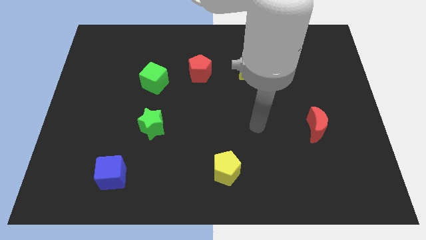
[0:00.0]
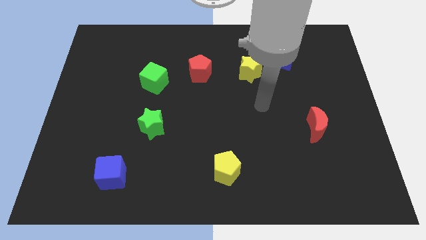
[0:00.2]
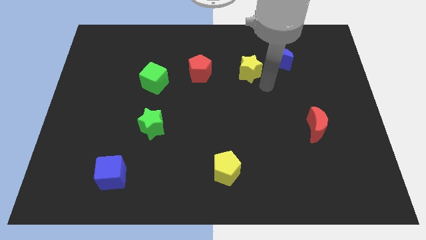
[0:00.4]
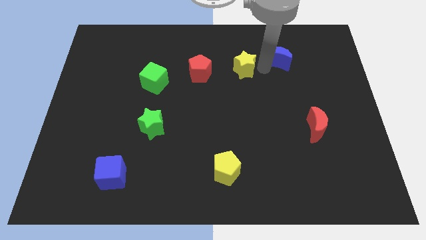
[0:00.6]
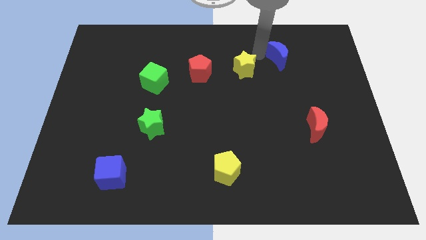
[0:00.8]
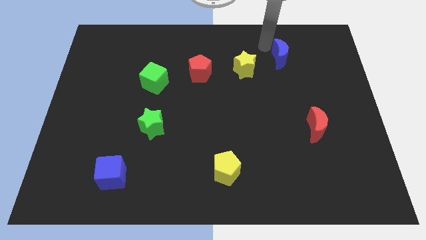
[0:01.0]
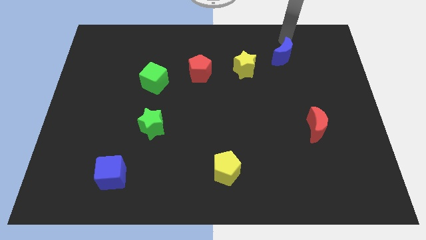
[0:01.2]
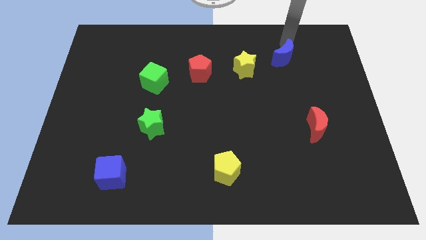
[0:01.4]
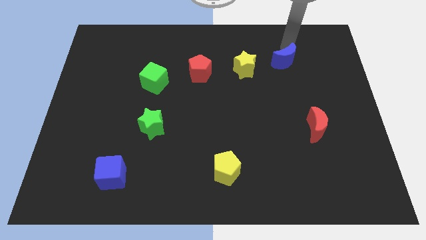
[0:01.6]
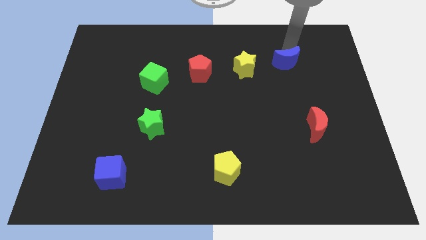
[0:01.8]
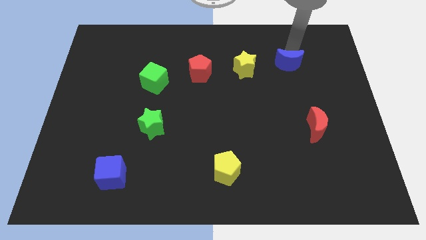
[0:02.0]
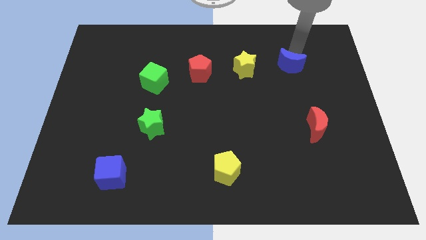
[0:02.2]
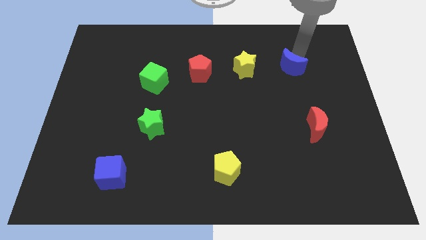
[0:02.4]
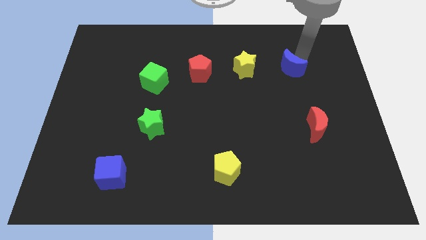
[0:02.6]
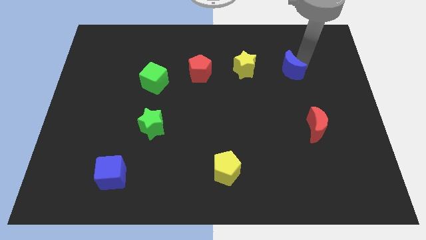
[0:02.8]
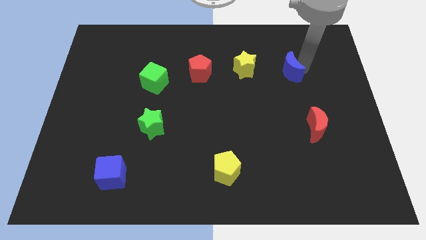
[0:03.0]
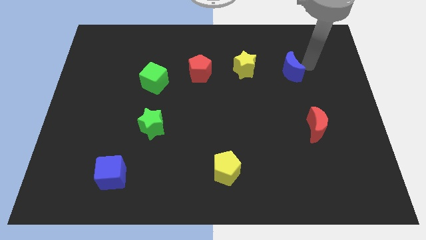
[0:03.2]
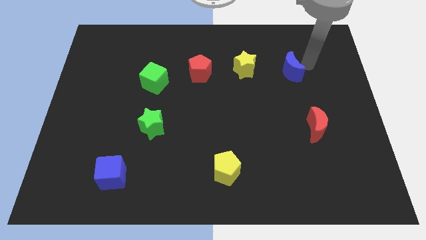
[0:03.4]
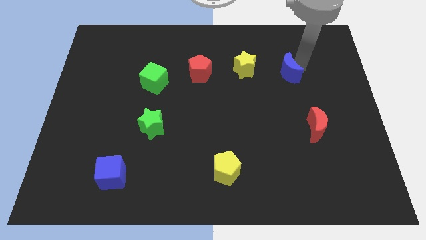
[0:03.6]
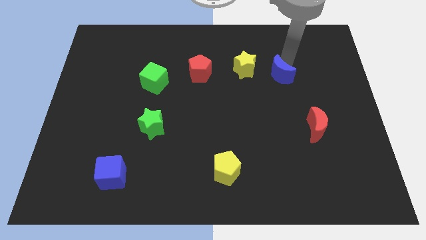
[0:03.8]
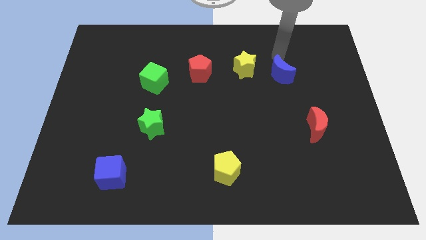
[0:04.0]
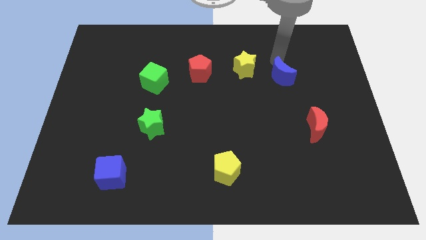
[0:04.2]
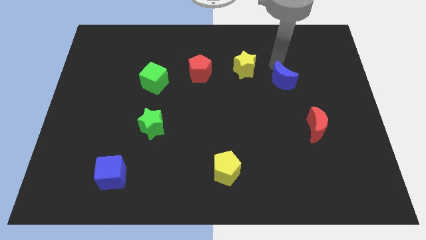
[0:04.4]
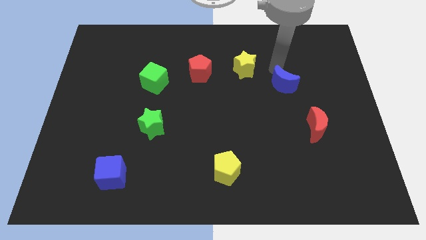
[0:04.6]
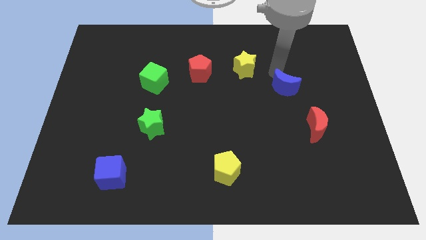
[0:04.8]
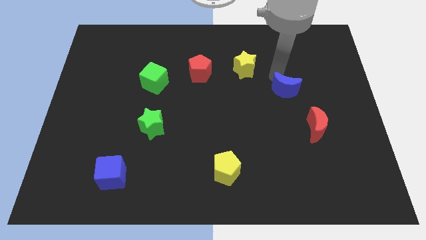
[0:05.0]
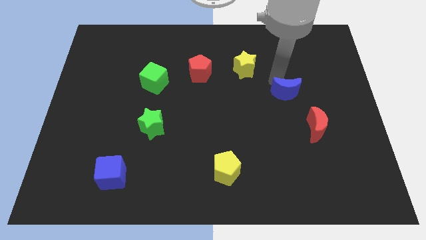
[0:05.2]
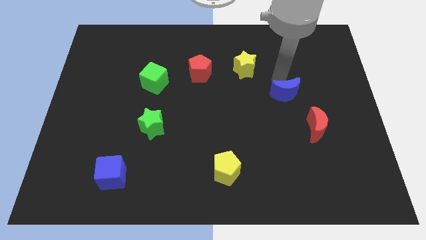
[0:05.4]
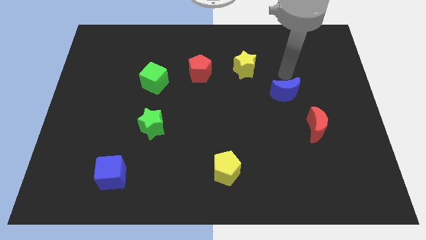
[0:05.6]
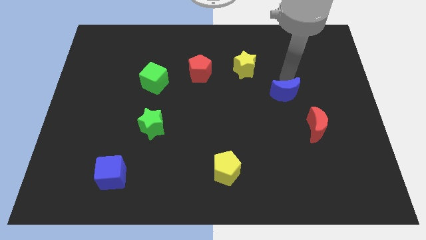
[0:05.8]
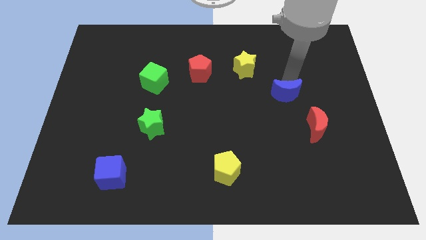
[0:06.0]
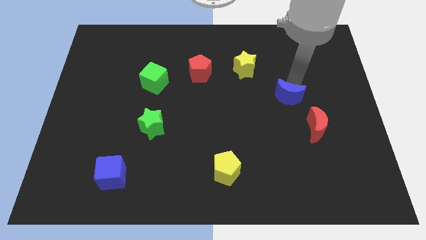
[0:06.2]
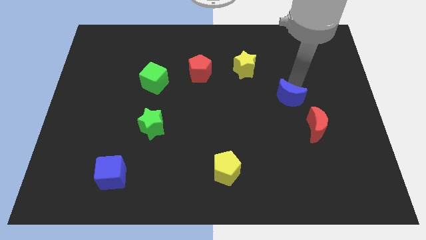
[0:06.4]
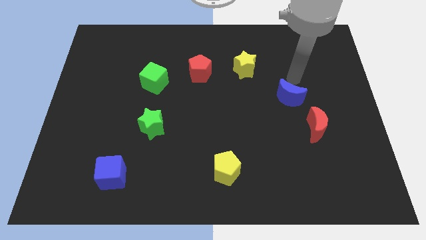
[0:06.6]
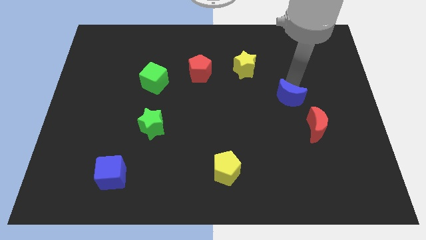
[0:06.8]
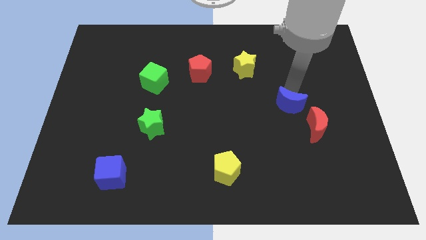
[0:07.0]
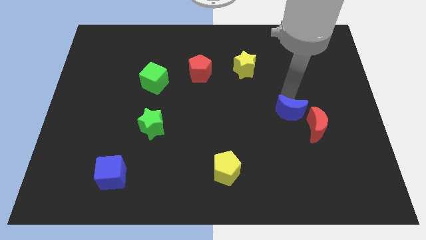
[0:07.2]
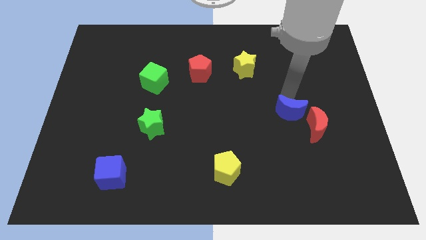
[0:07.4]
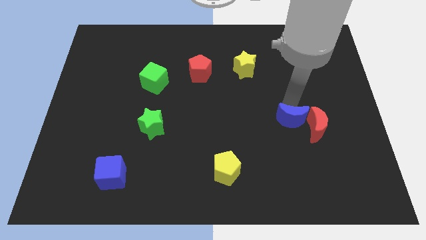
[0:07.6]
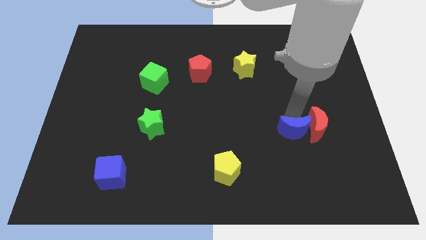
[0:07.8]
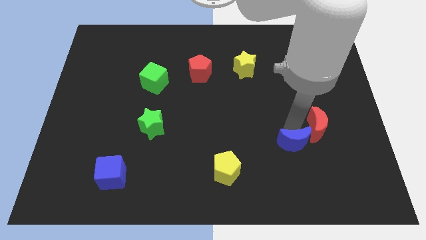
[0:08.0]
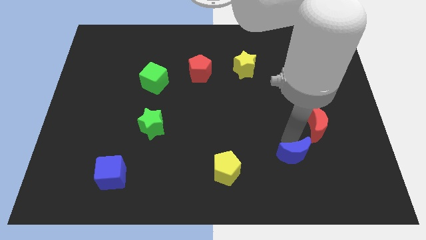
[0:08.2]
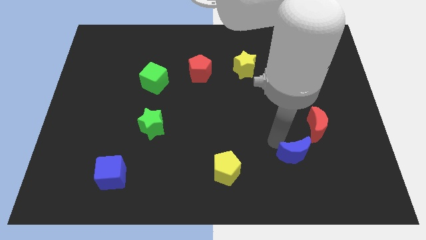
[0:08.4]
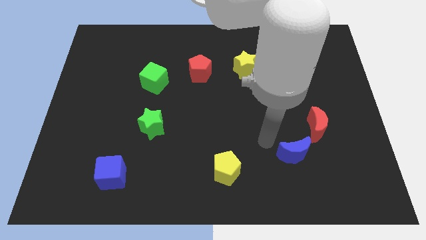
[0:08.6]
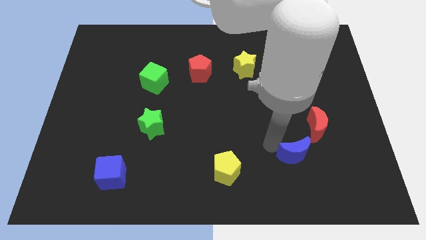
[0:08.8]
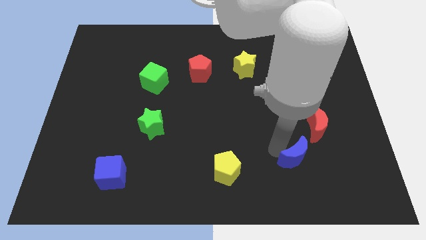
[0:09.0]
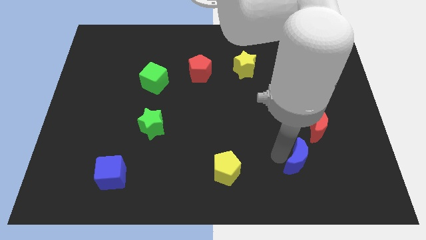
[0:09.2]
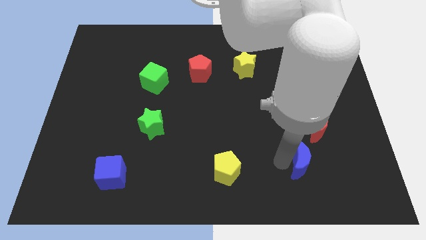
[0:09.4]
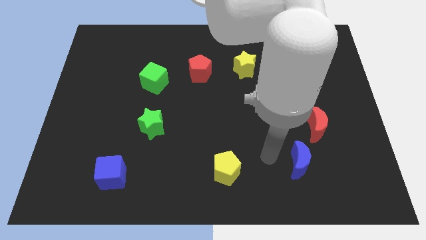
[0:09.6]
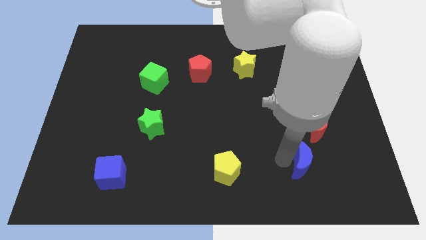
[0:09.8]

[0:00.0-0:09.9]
put the blue moon below the red moon

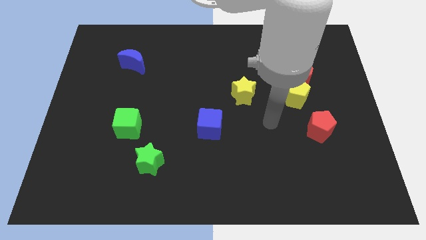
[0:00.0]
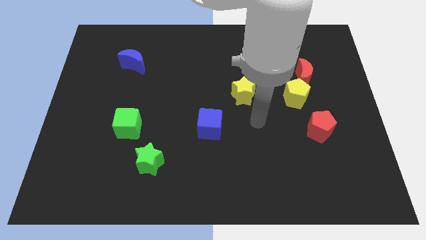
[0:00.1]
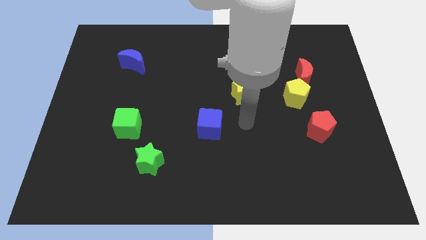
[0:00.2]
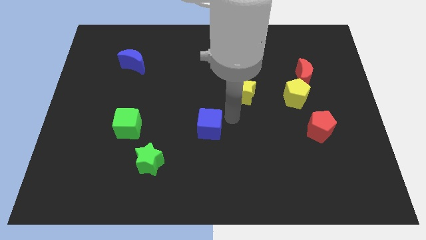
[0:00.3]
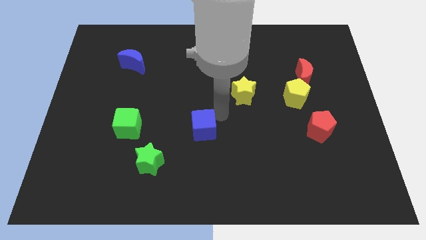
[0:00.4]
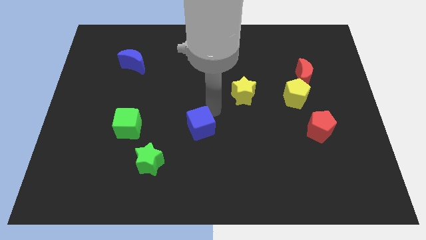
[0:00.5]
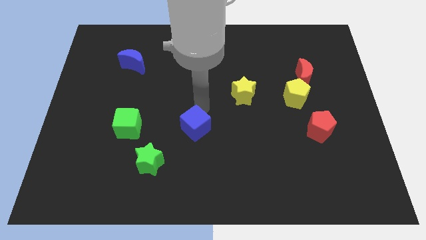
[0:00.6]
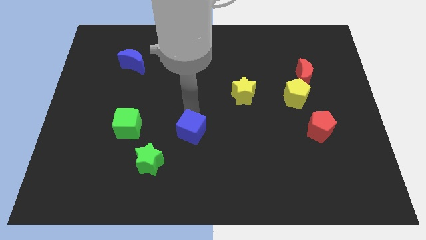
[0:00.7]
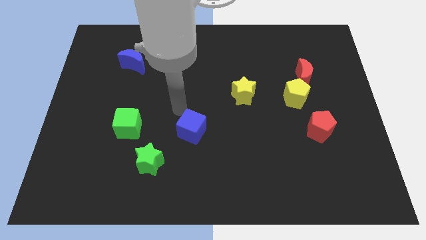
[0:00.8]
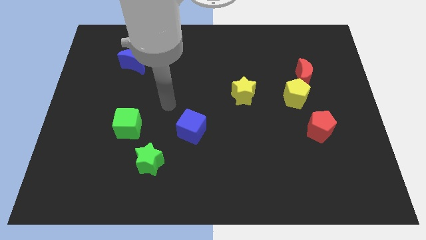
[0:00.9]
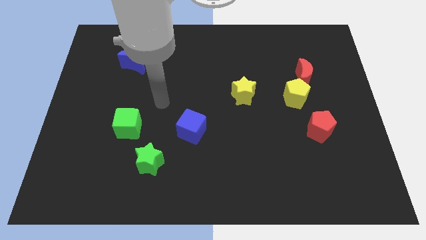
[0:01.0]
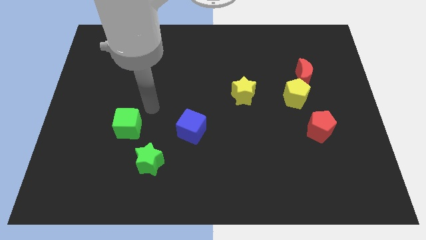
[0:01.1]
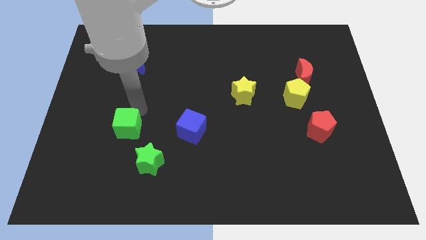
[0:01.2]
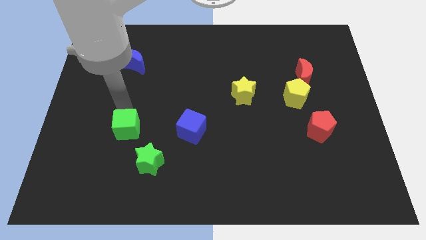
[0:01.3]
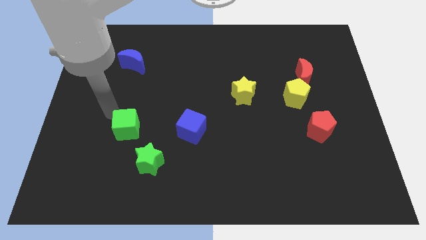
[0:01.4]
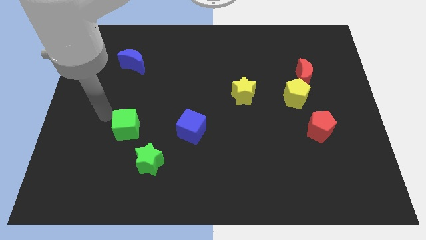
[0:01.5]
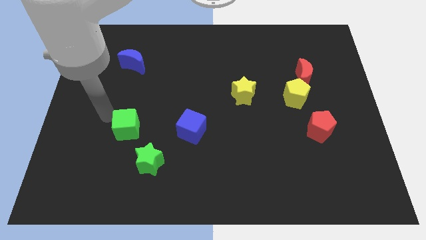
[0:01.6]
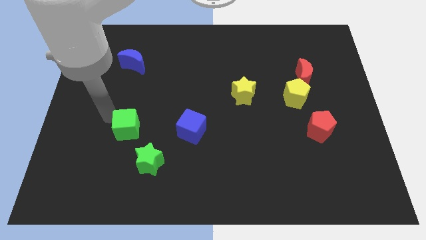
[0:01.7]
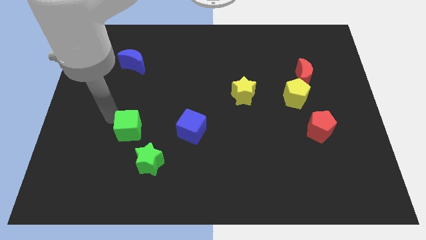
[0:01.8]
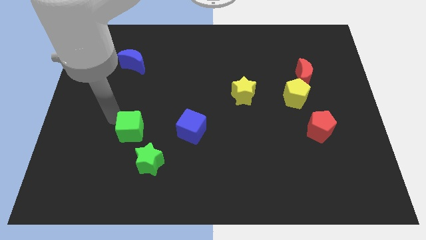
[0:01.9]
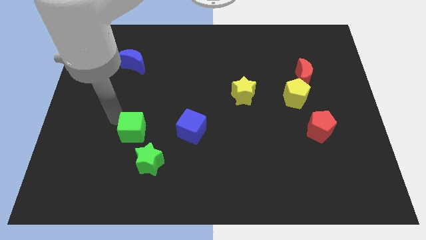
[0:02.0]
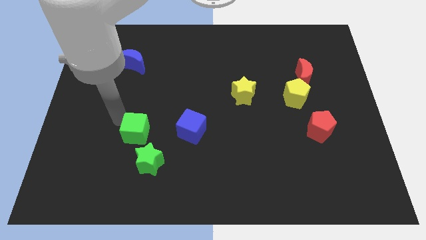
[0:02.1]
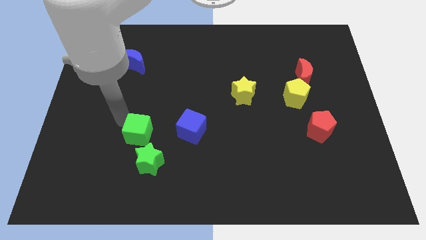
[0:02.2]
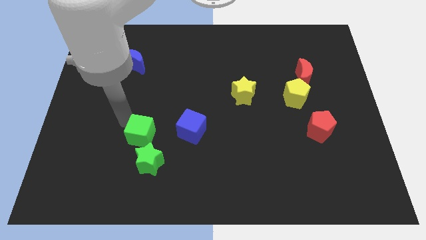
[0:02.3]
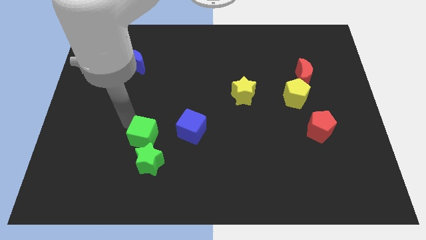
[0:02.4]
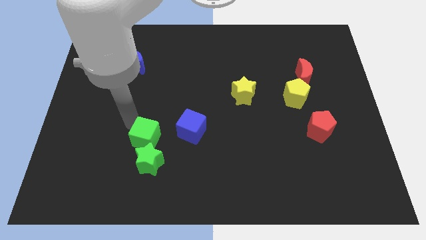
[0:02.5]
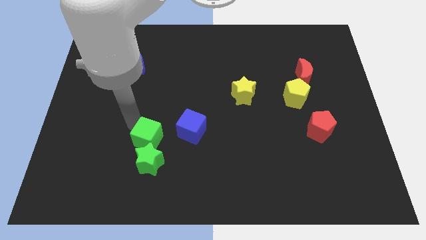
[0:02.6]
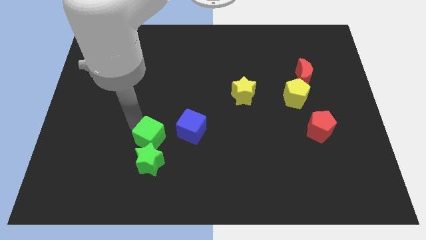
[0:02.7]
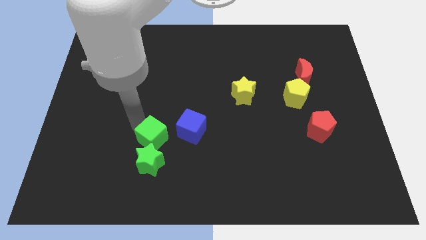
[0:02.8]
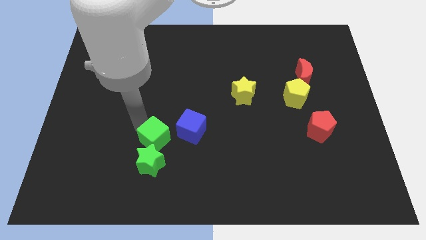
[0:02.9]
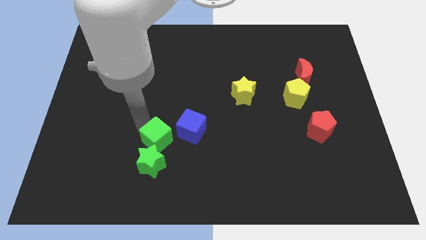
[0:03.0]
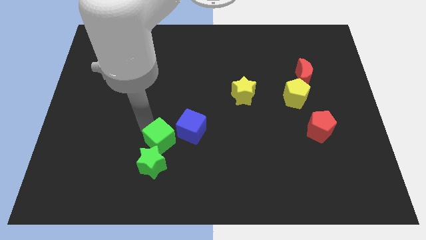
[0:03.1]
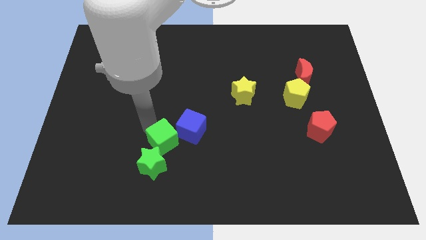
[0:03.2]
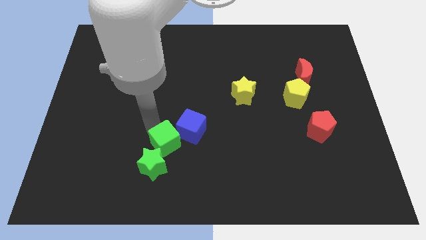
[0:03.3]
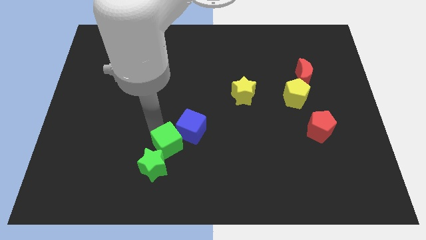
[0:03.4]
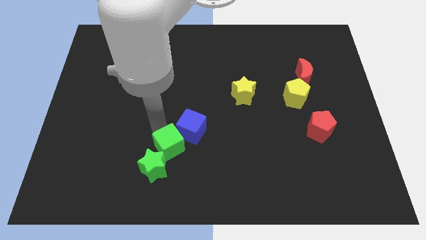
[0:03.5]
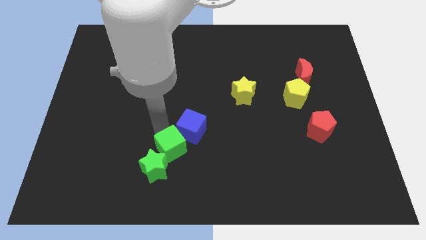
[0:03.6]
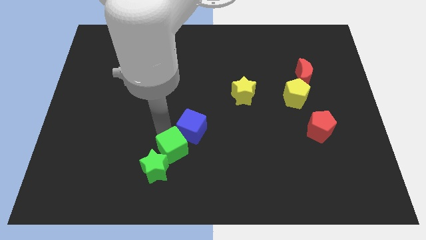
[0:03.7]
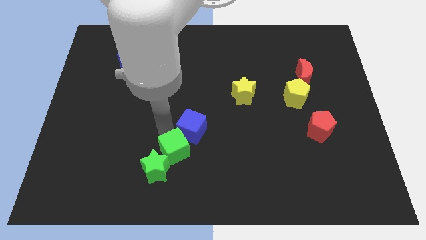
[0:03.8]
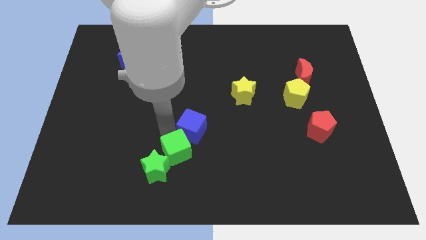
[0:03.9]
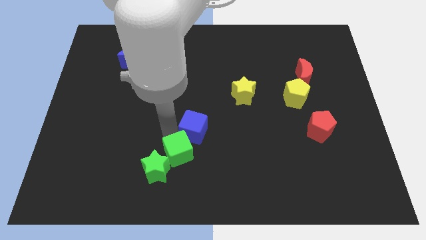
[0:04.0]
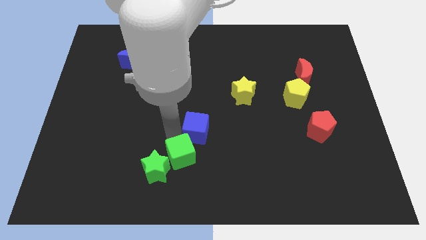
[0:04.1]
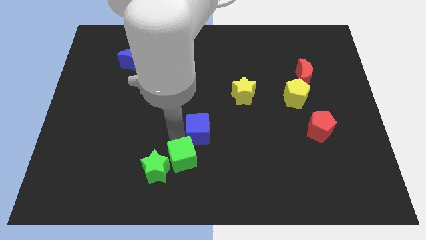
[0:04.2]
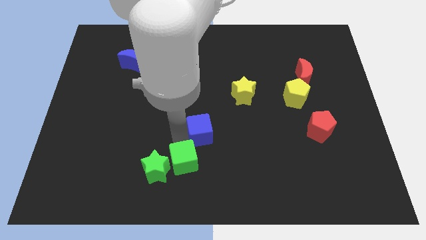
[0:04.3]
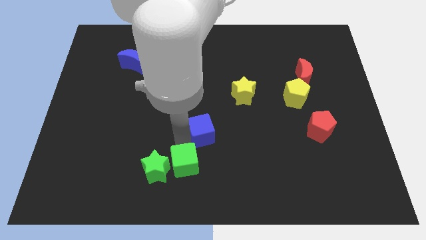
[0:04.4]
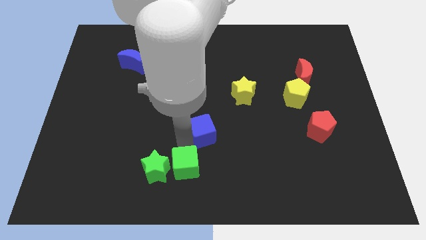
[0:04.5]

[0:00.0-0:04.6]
push the green cube to the bottom right side of the green star
